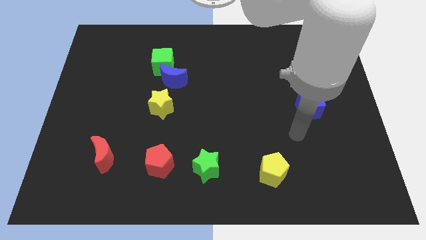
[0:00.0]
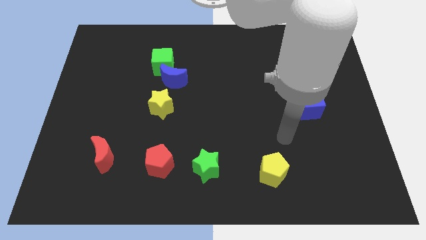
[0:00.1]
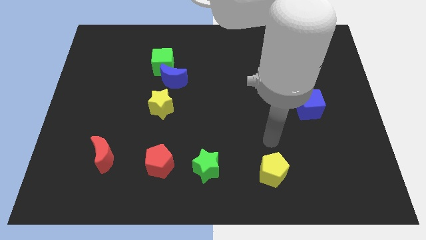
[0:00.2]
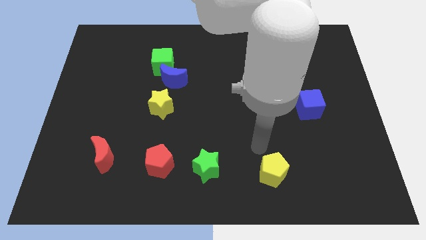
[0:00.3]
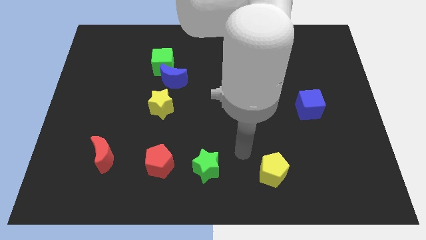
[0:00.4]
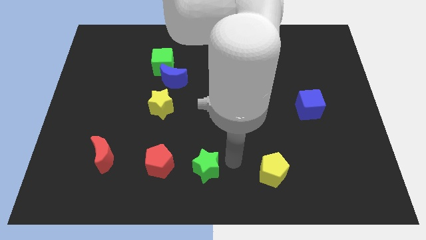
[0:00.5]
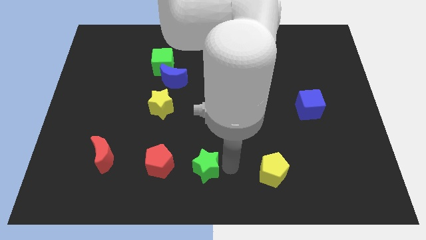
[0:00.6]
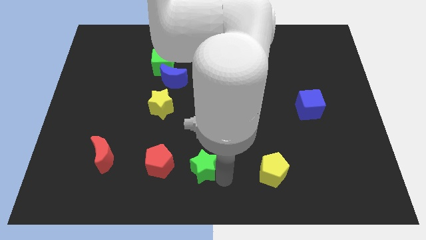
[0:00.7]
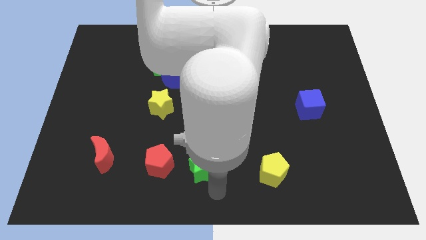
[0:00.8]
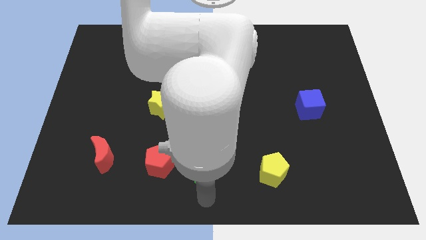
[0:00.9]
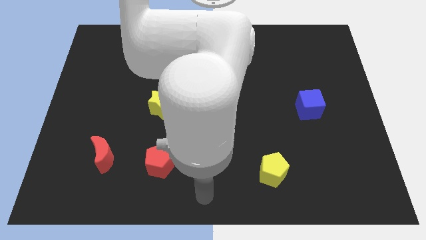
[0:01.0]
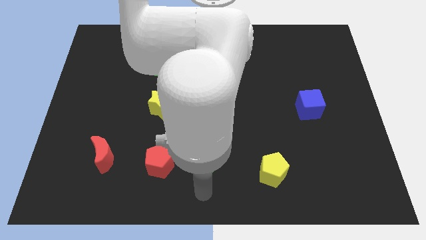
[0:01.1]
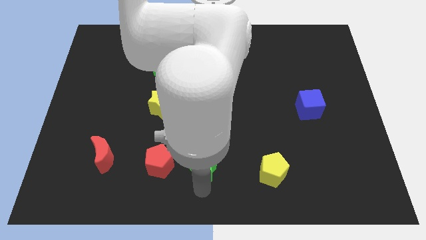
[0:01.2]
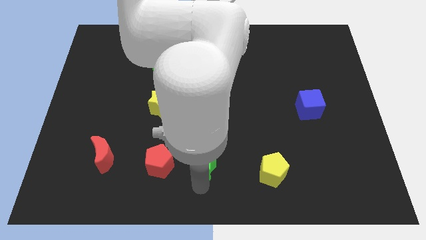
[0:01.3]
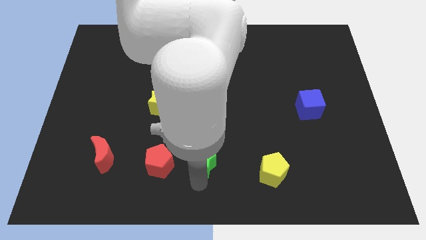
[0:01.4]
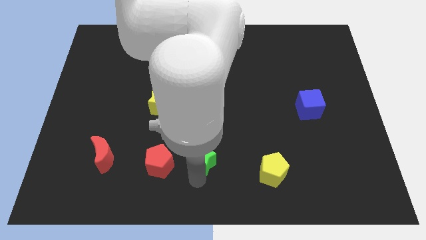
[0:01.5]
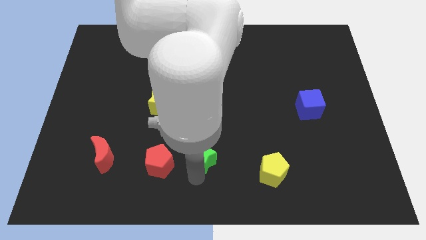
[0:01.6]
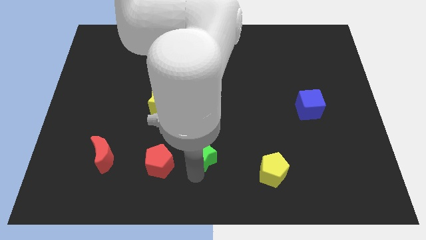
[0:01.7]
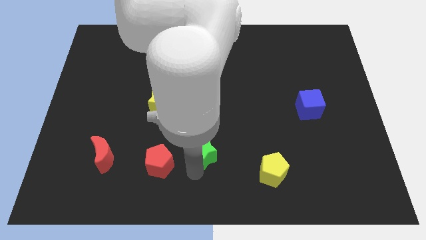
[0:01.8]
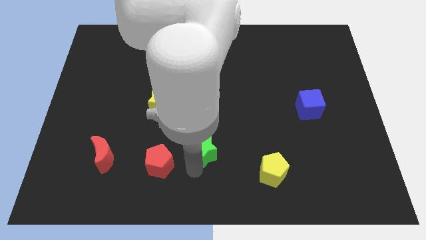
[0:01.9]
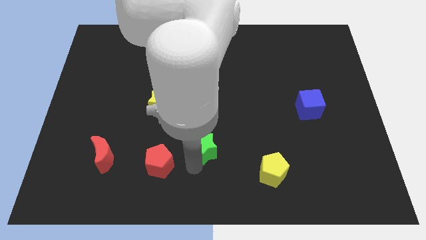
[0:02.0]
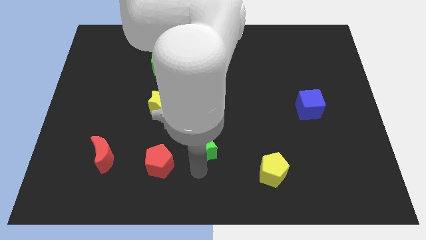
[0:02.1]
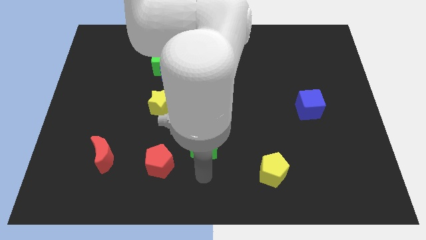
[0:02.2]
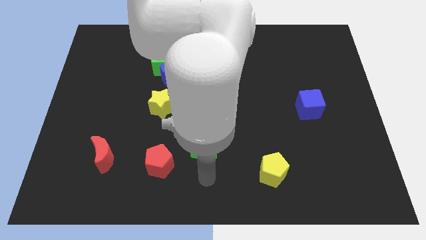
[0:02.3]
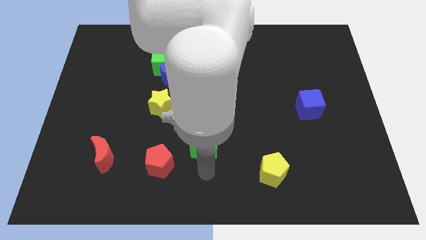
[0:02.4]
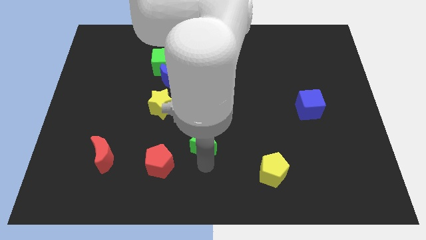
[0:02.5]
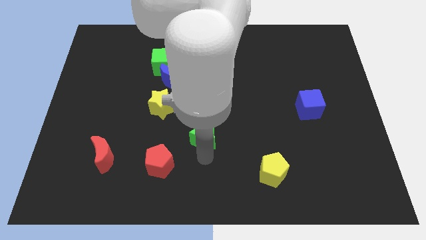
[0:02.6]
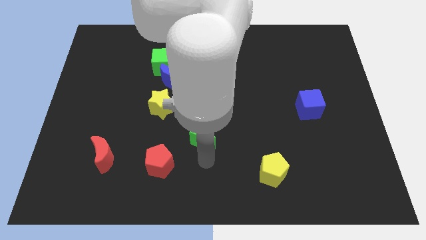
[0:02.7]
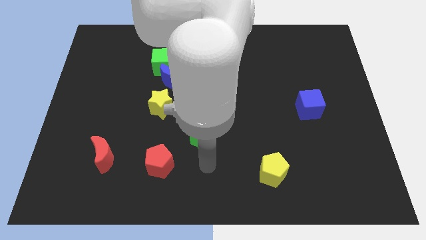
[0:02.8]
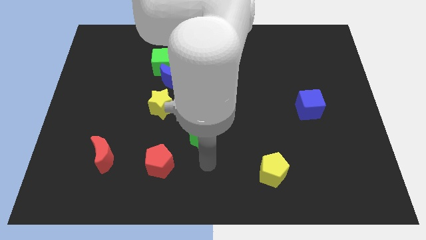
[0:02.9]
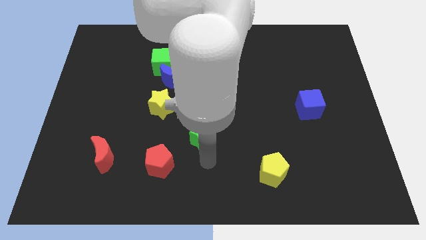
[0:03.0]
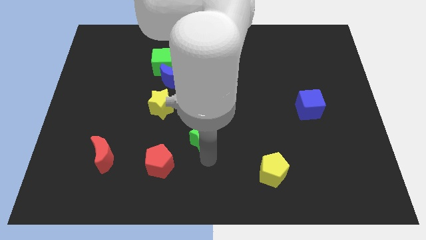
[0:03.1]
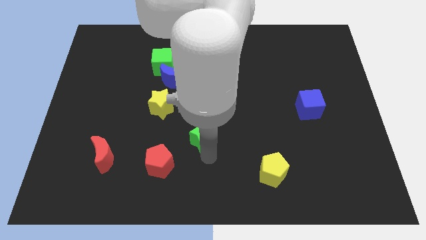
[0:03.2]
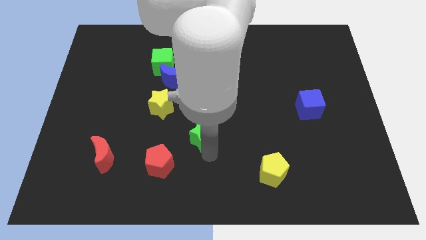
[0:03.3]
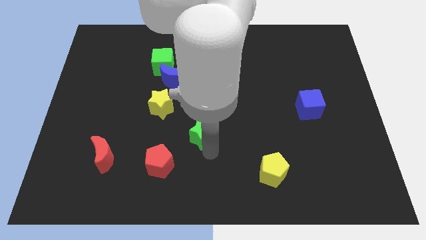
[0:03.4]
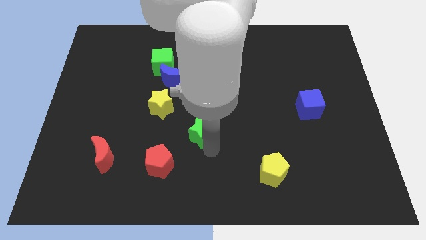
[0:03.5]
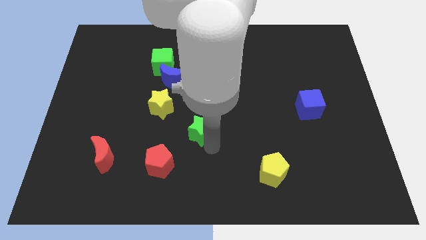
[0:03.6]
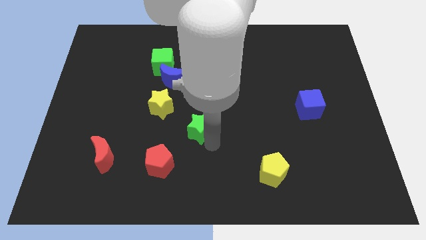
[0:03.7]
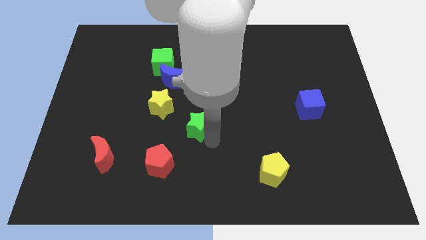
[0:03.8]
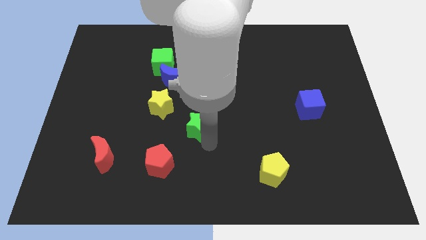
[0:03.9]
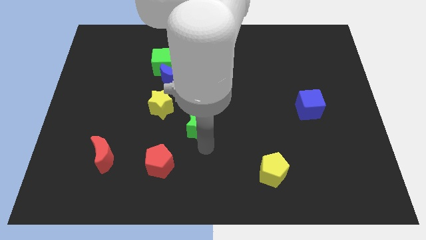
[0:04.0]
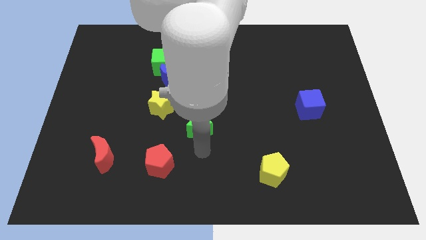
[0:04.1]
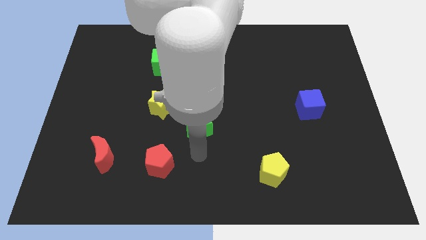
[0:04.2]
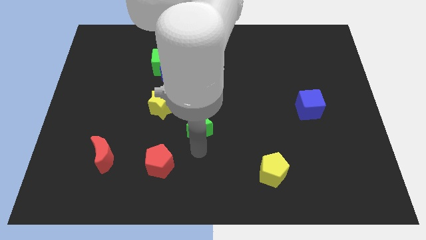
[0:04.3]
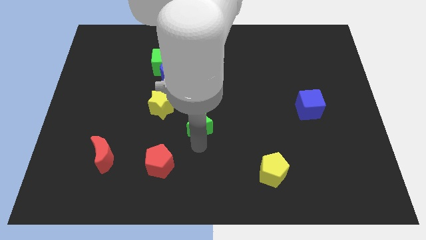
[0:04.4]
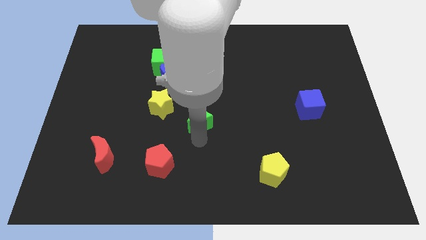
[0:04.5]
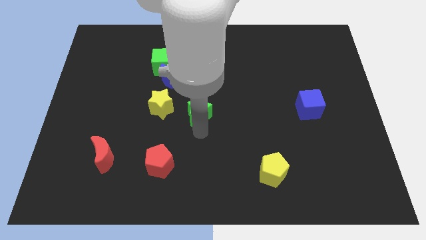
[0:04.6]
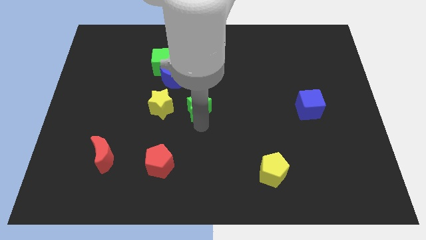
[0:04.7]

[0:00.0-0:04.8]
push the green star to the bottom right of the blue moon

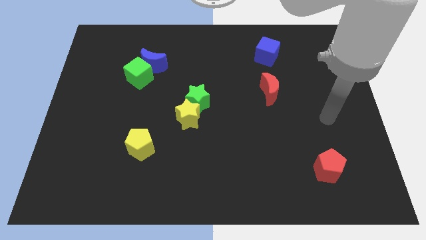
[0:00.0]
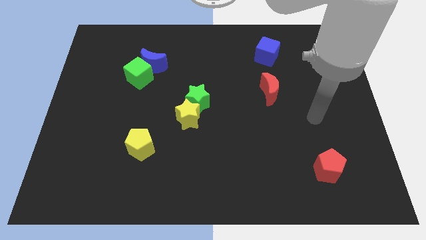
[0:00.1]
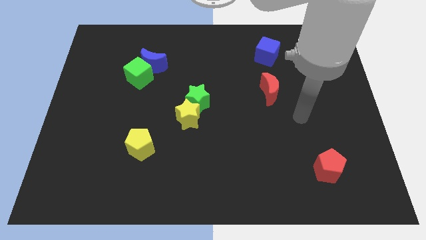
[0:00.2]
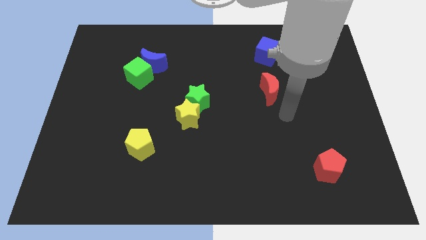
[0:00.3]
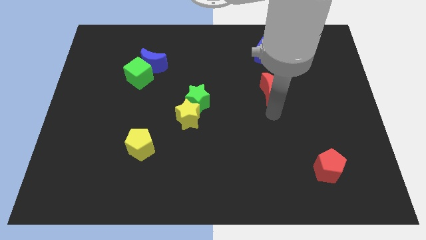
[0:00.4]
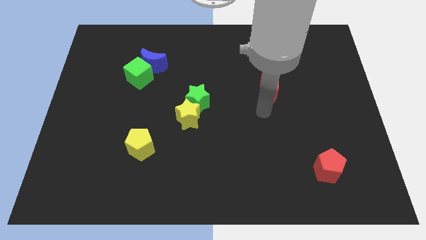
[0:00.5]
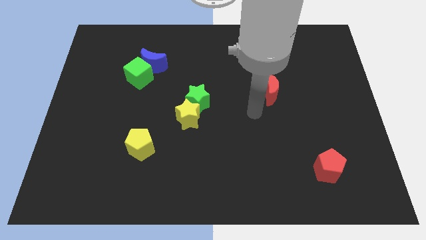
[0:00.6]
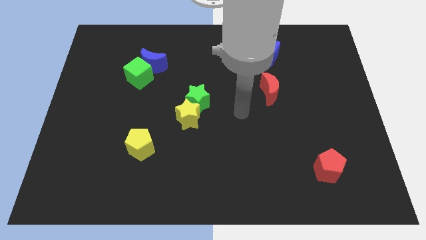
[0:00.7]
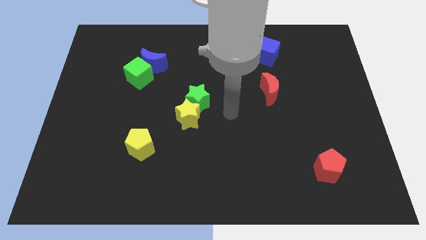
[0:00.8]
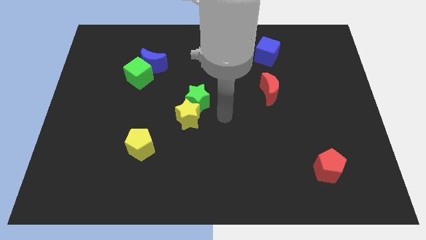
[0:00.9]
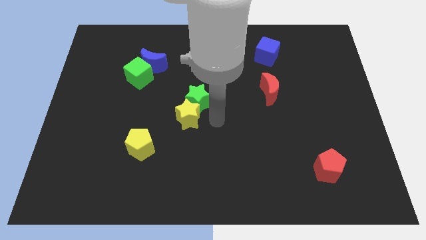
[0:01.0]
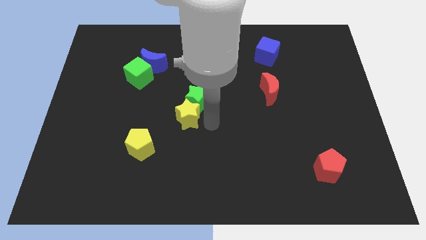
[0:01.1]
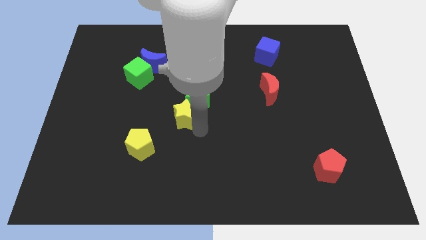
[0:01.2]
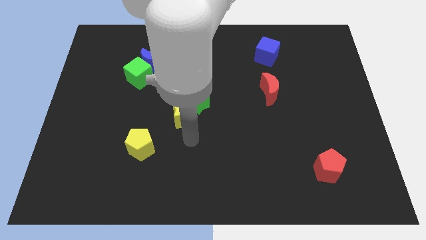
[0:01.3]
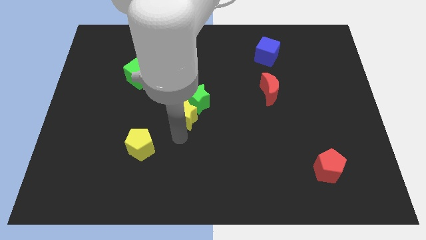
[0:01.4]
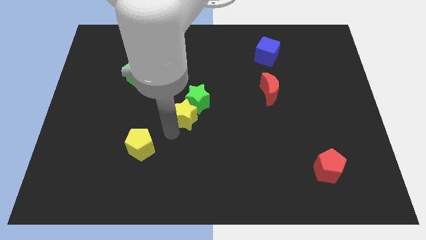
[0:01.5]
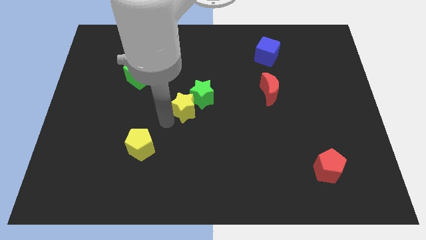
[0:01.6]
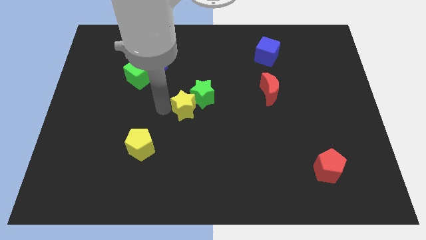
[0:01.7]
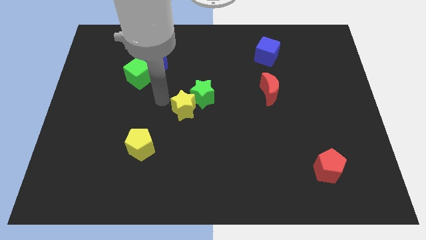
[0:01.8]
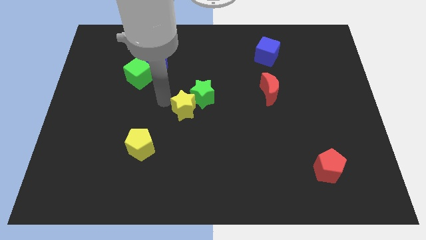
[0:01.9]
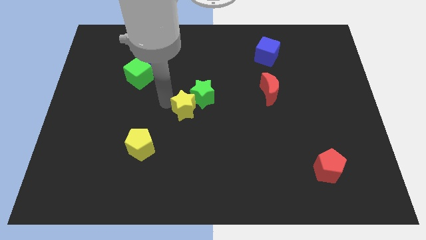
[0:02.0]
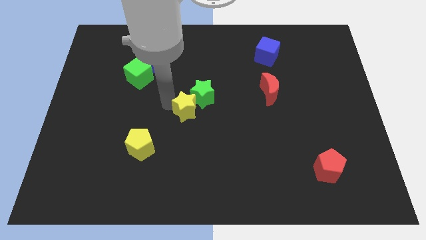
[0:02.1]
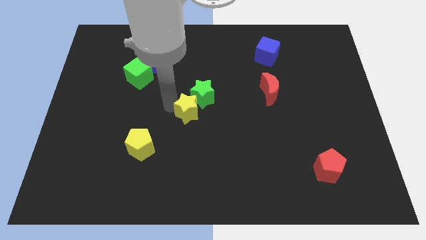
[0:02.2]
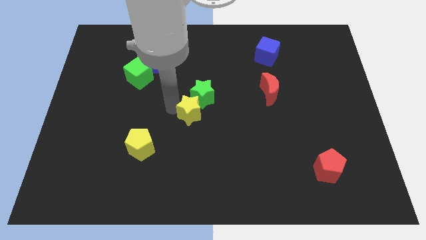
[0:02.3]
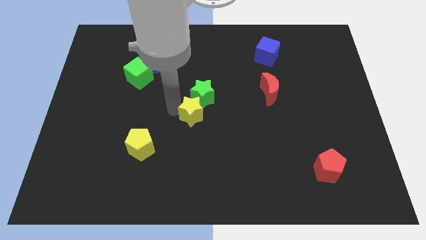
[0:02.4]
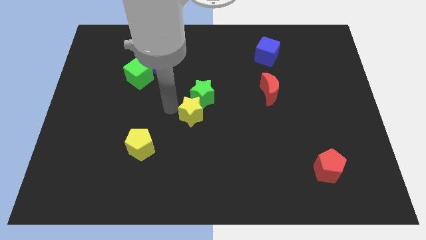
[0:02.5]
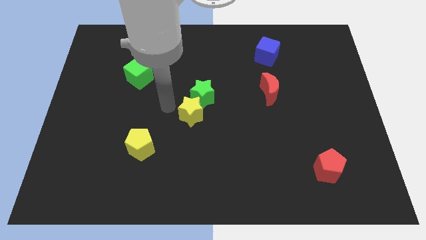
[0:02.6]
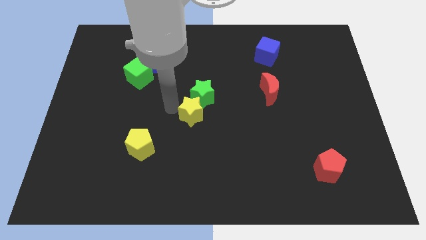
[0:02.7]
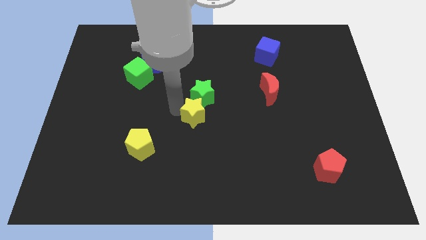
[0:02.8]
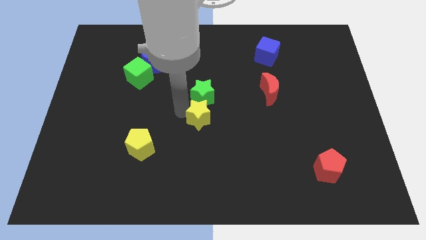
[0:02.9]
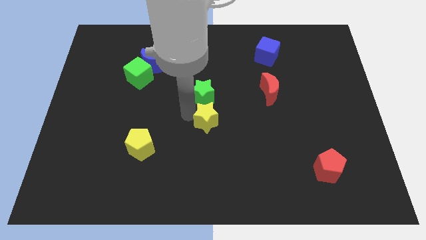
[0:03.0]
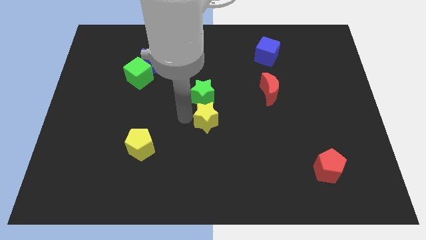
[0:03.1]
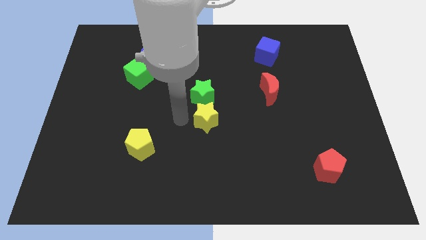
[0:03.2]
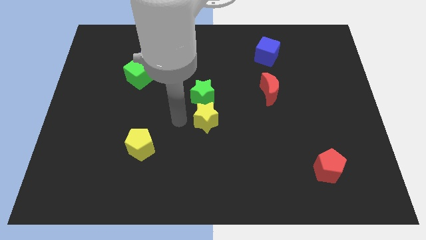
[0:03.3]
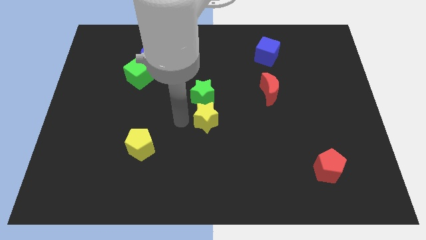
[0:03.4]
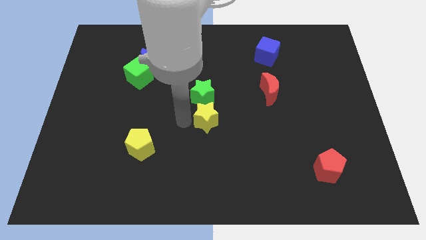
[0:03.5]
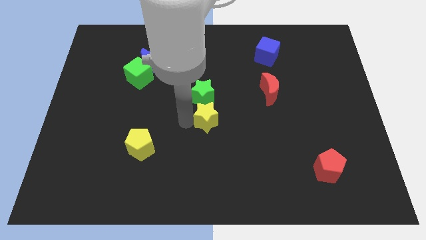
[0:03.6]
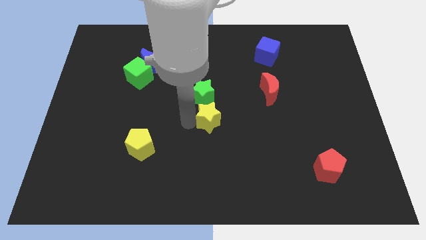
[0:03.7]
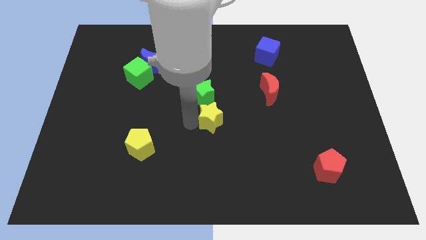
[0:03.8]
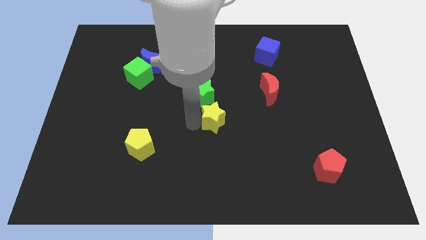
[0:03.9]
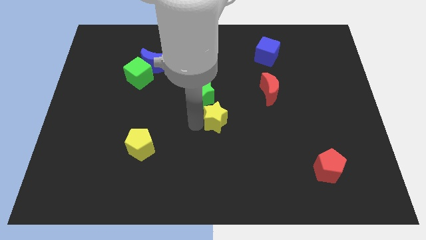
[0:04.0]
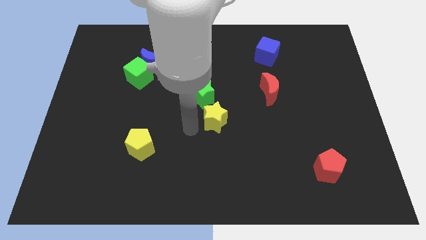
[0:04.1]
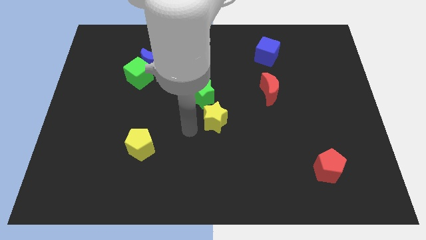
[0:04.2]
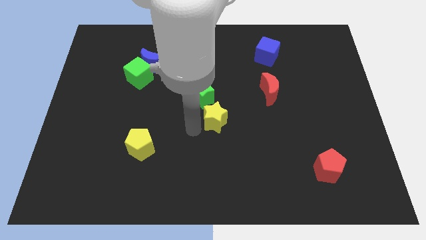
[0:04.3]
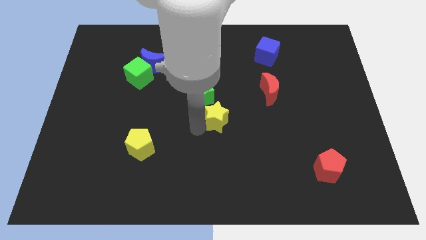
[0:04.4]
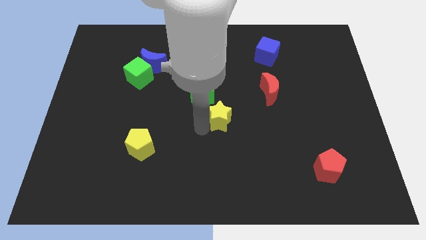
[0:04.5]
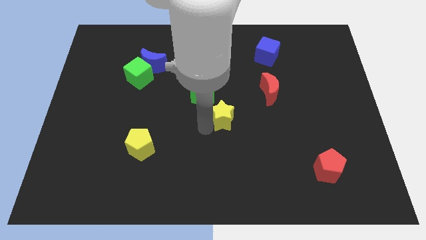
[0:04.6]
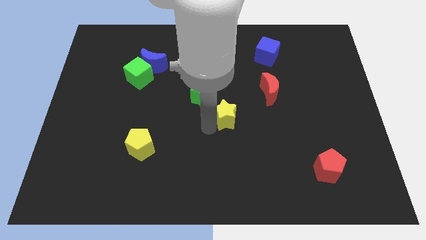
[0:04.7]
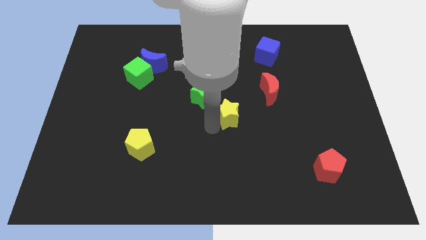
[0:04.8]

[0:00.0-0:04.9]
push the yellow star to the bottom left of the red moon
